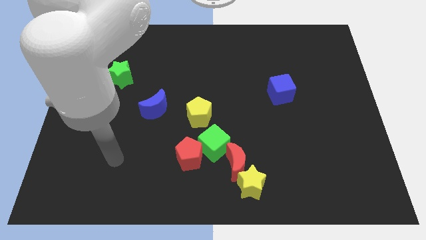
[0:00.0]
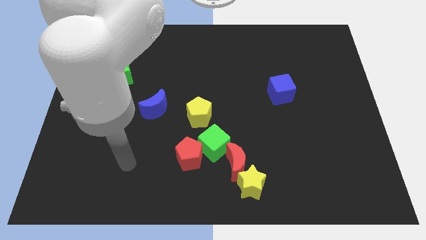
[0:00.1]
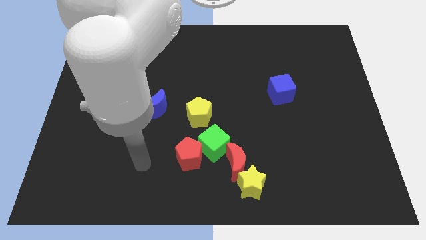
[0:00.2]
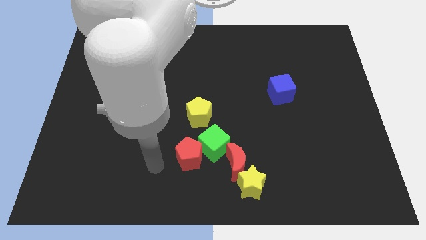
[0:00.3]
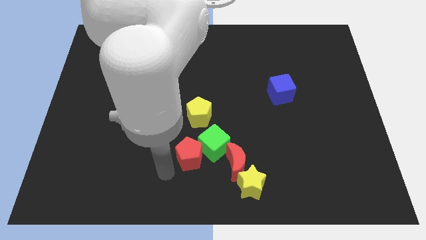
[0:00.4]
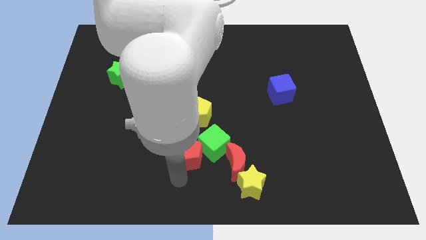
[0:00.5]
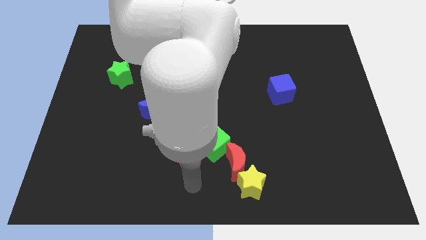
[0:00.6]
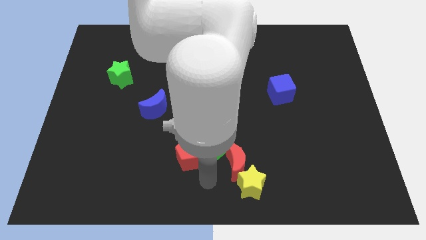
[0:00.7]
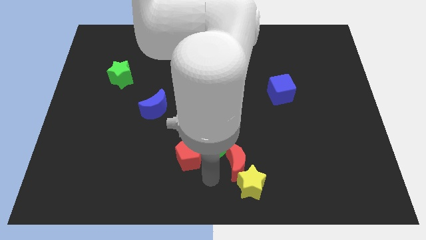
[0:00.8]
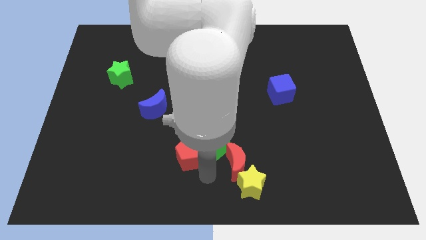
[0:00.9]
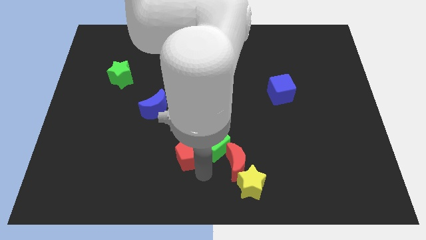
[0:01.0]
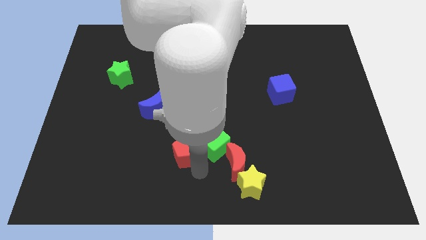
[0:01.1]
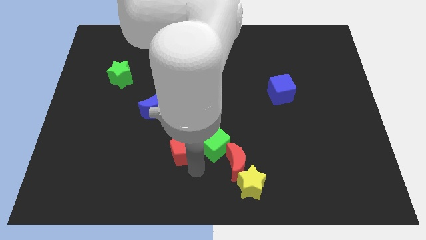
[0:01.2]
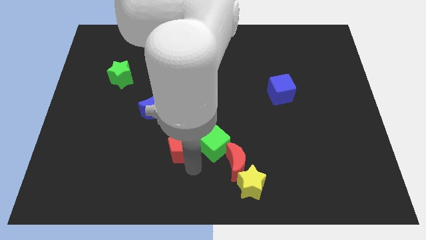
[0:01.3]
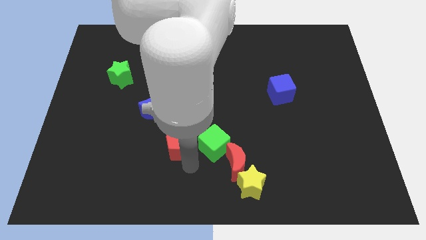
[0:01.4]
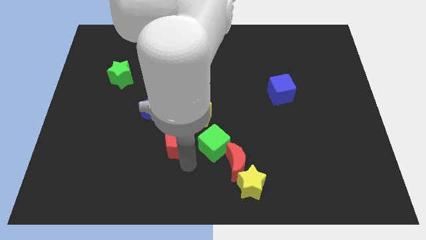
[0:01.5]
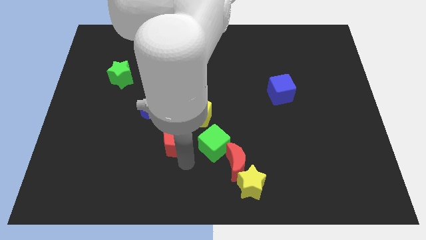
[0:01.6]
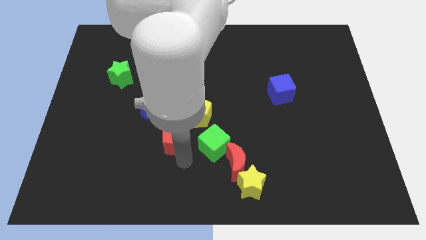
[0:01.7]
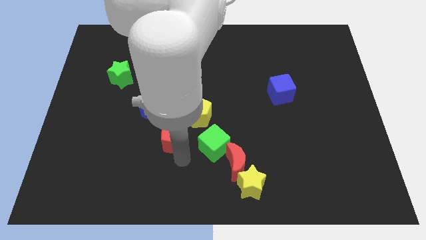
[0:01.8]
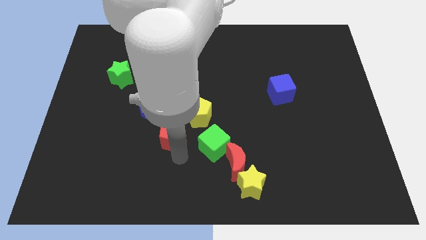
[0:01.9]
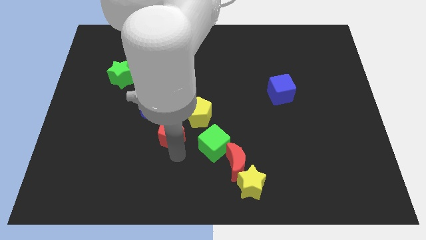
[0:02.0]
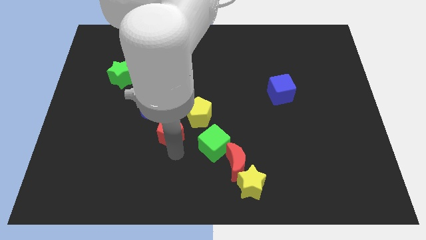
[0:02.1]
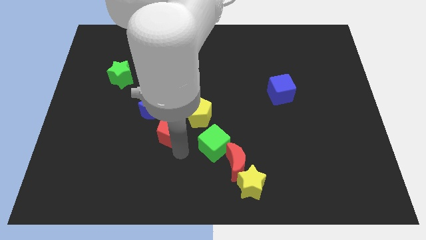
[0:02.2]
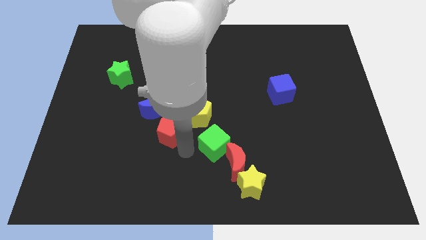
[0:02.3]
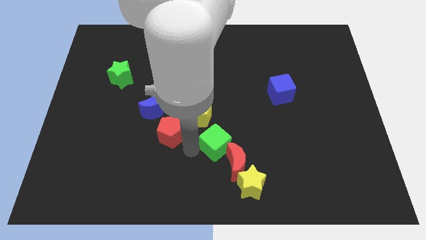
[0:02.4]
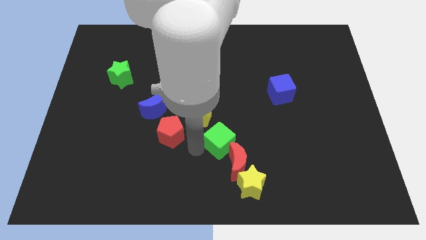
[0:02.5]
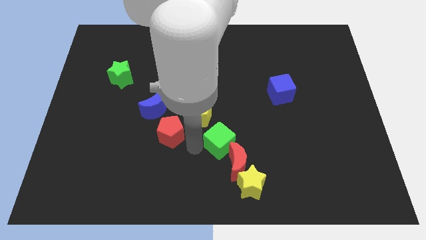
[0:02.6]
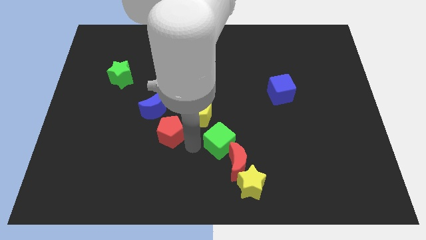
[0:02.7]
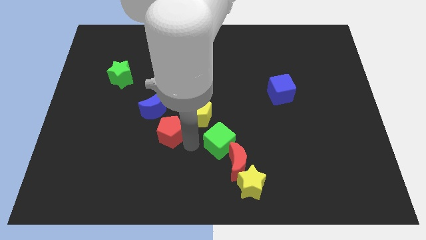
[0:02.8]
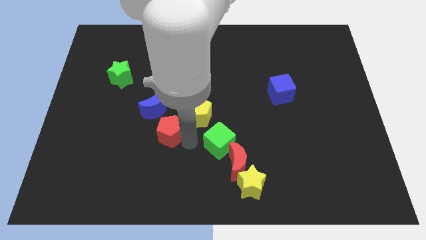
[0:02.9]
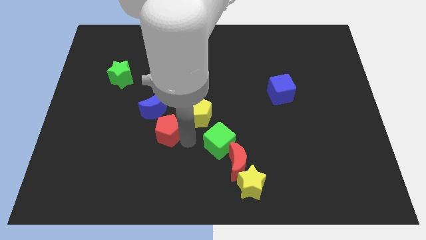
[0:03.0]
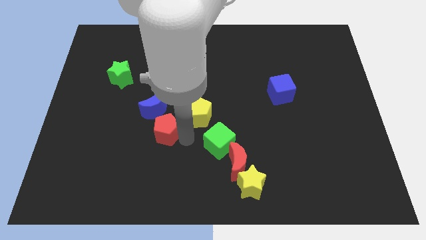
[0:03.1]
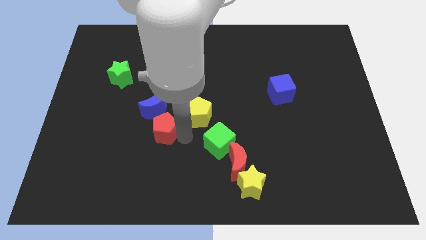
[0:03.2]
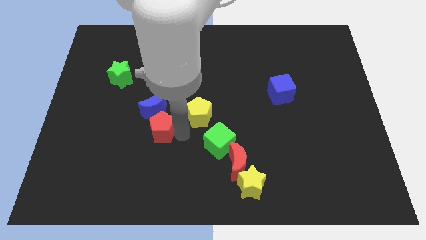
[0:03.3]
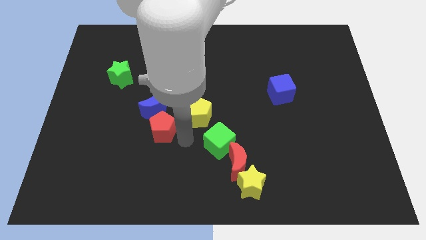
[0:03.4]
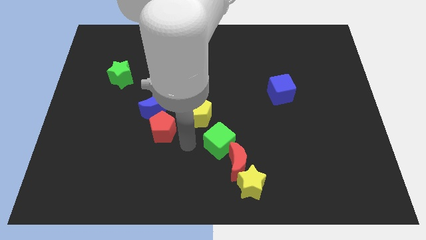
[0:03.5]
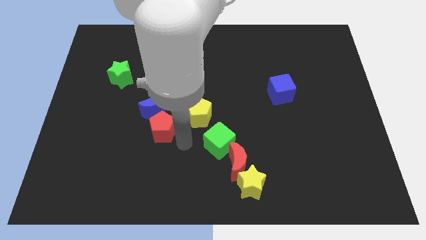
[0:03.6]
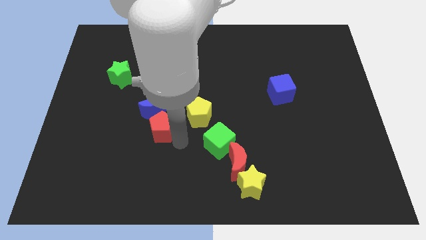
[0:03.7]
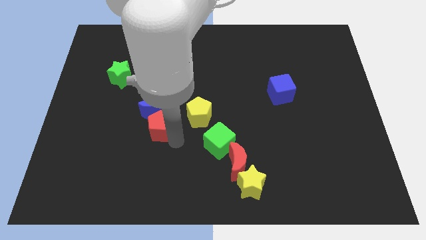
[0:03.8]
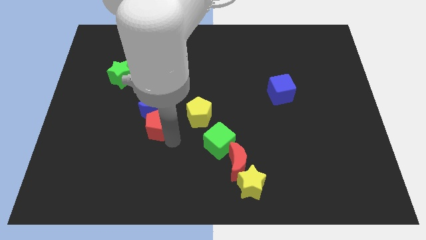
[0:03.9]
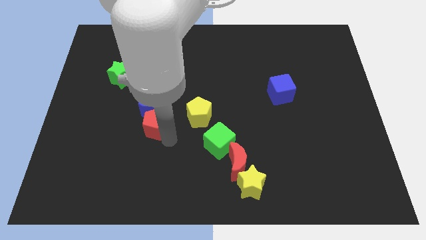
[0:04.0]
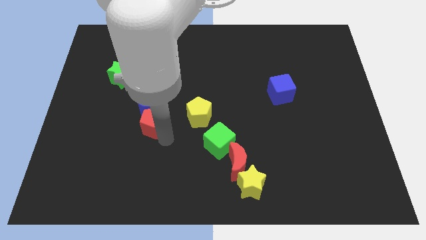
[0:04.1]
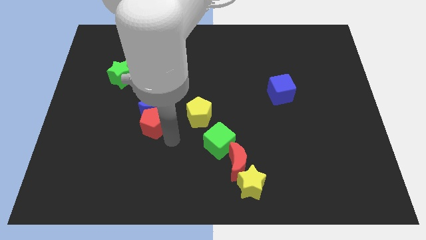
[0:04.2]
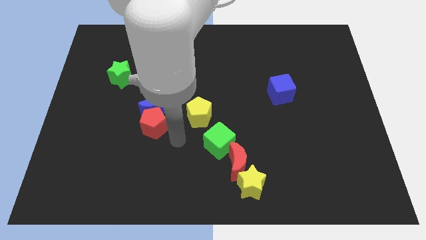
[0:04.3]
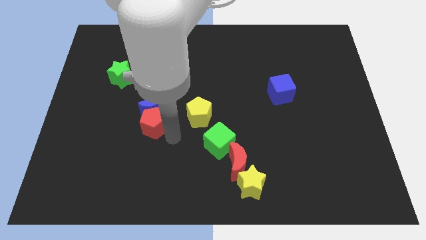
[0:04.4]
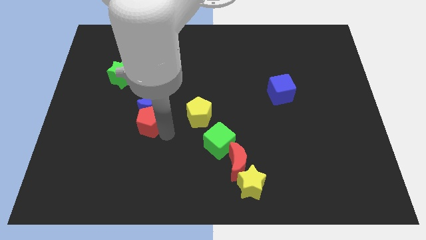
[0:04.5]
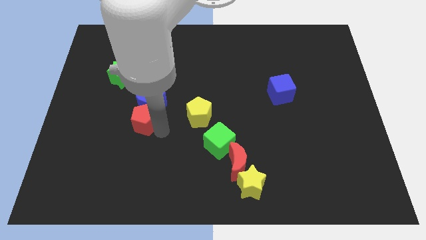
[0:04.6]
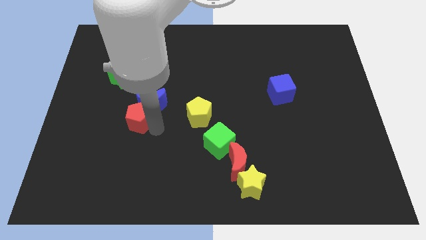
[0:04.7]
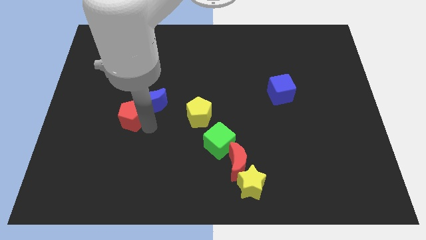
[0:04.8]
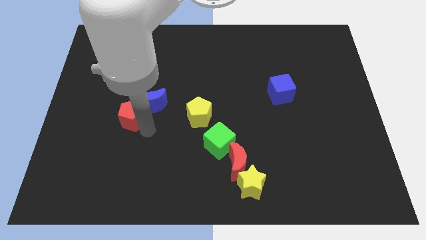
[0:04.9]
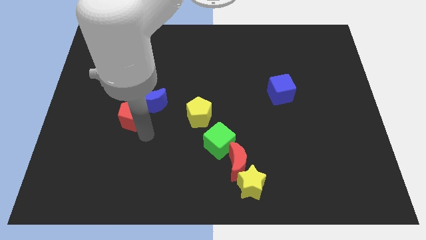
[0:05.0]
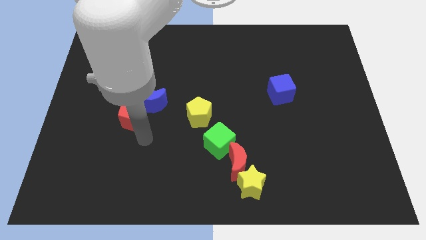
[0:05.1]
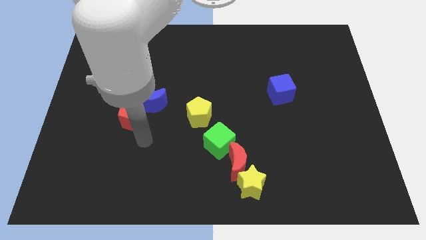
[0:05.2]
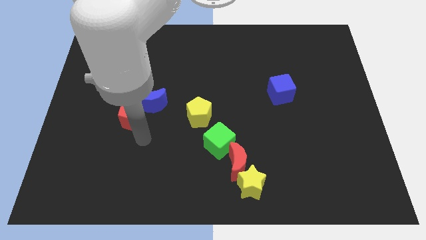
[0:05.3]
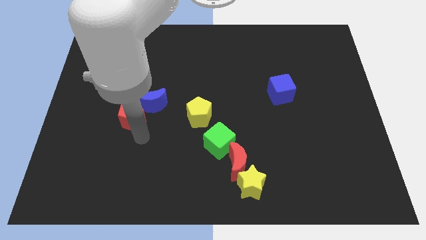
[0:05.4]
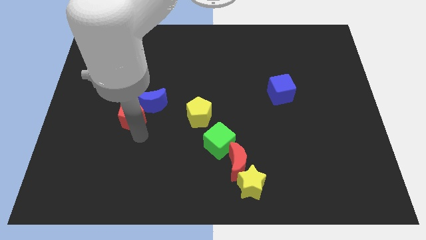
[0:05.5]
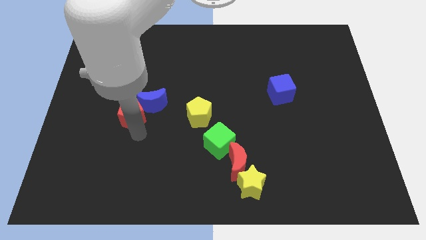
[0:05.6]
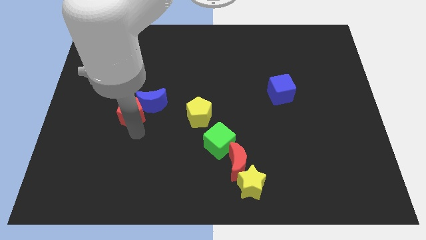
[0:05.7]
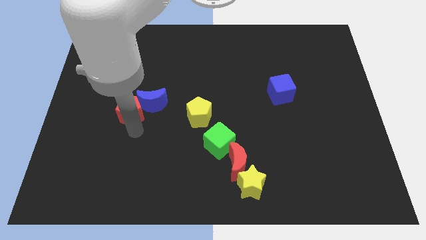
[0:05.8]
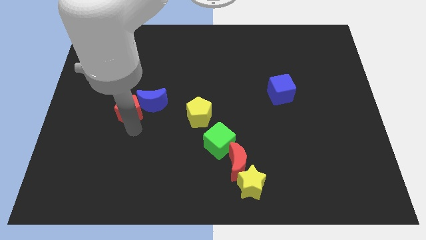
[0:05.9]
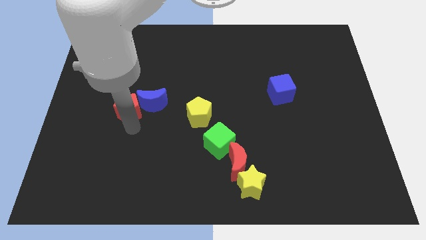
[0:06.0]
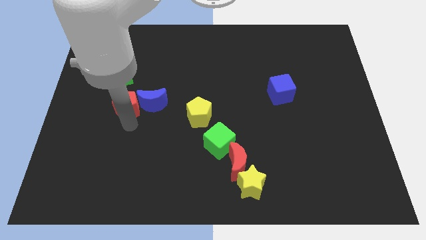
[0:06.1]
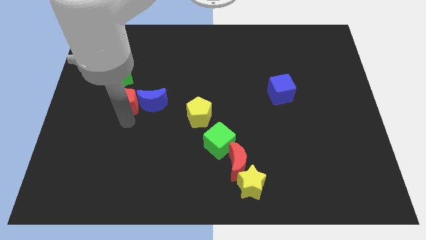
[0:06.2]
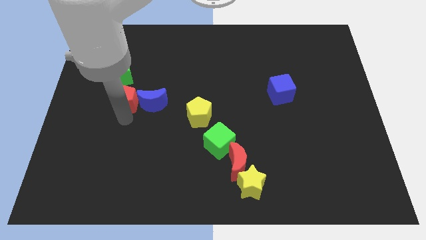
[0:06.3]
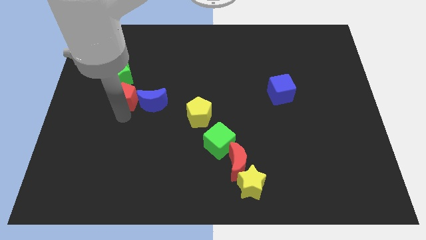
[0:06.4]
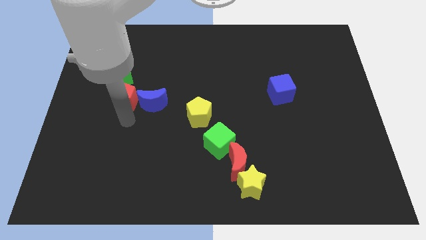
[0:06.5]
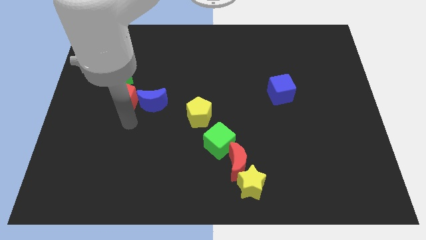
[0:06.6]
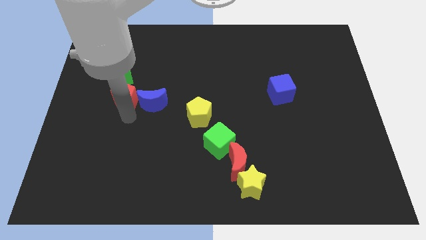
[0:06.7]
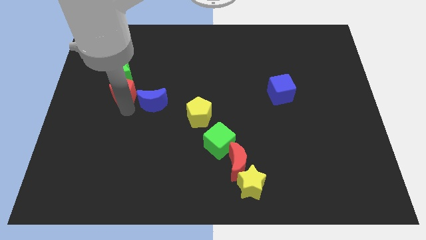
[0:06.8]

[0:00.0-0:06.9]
move the red pentagon to the green star
